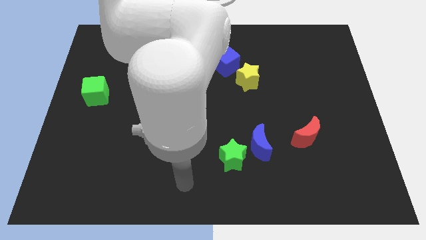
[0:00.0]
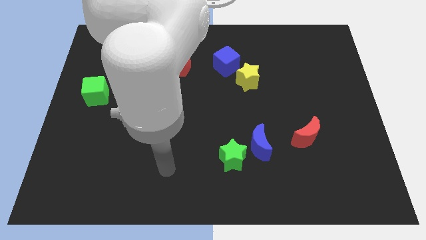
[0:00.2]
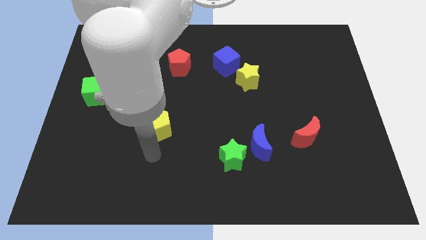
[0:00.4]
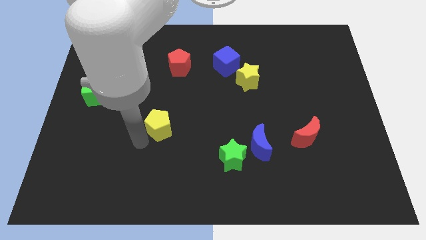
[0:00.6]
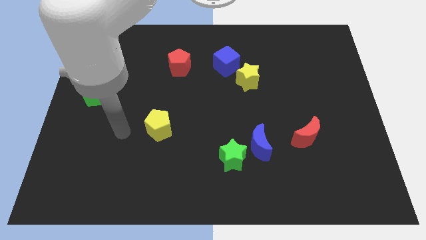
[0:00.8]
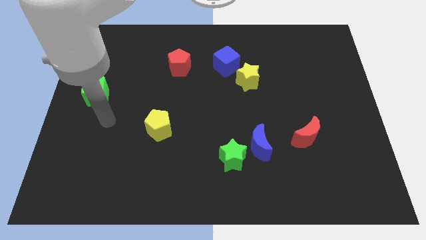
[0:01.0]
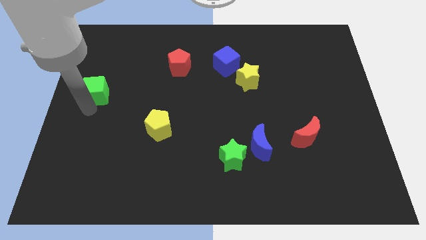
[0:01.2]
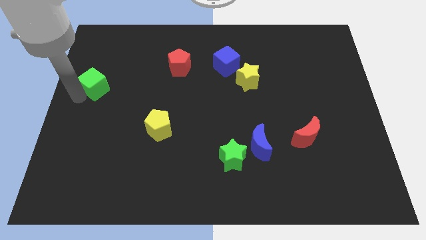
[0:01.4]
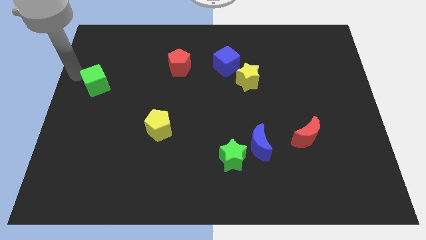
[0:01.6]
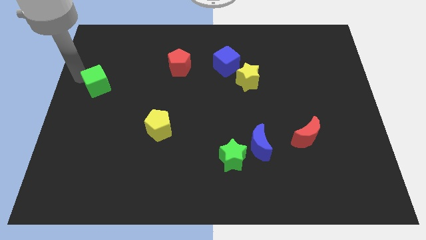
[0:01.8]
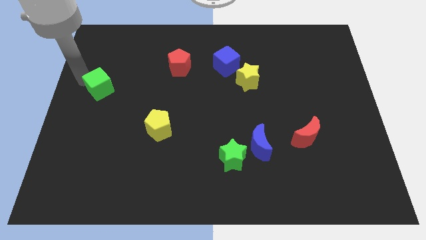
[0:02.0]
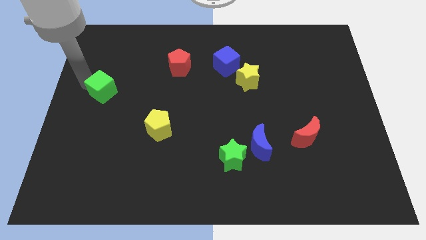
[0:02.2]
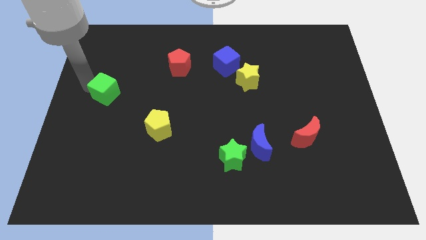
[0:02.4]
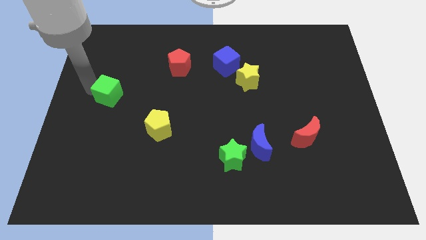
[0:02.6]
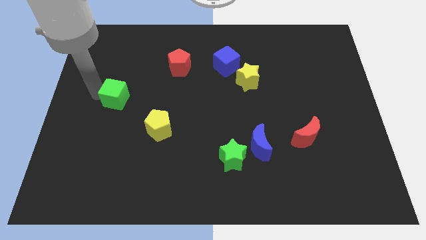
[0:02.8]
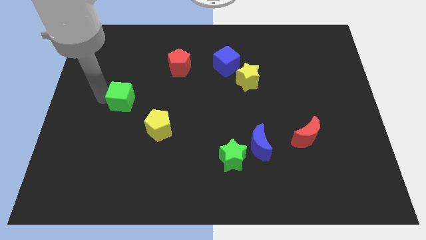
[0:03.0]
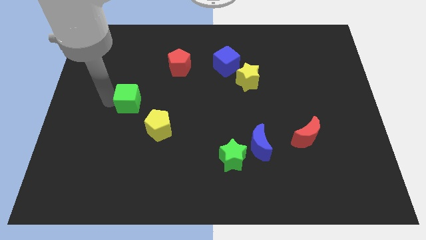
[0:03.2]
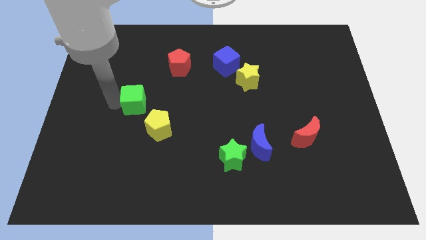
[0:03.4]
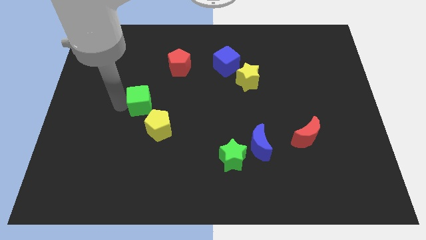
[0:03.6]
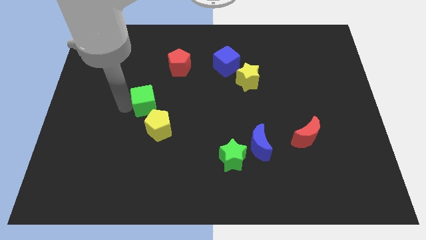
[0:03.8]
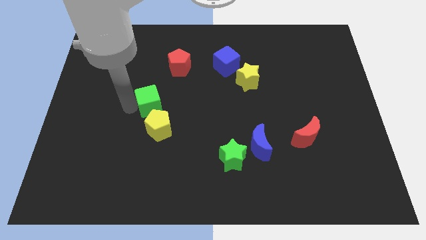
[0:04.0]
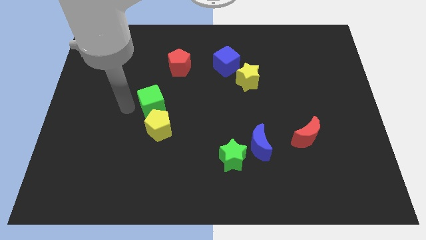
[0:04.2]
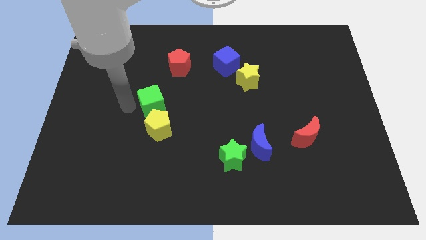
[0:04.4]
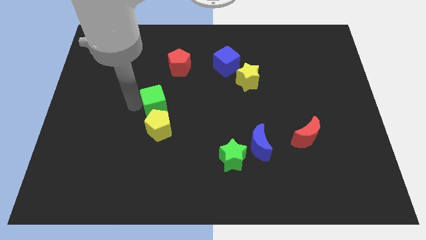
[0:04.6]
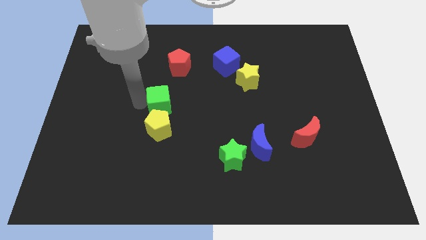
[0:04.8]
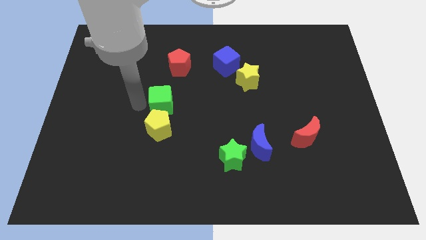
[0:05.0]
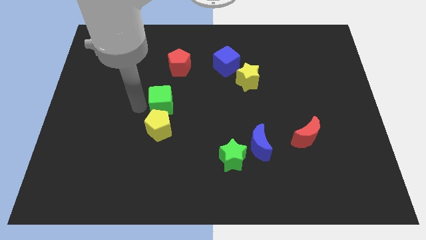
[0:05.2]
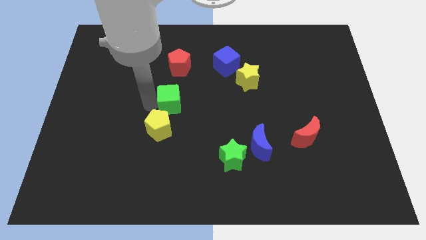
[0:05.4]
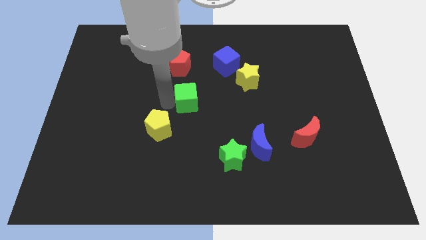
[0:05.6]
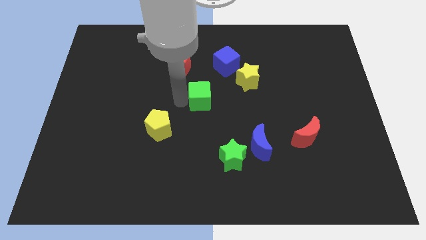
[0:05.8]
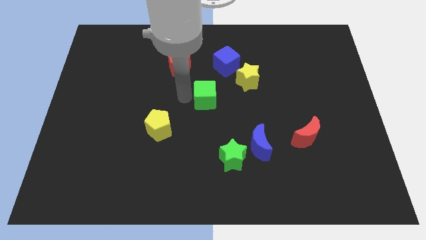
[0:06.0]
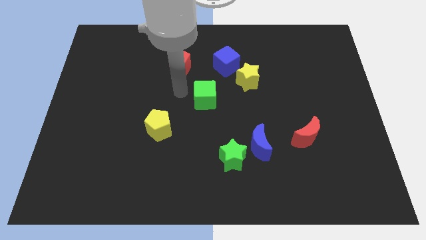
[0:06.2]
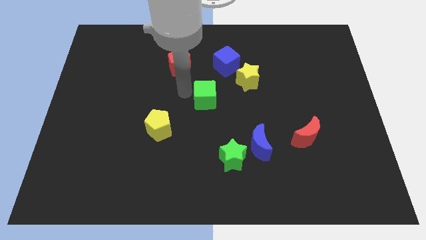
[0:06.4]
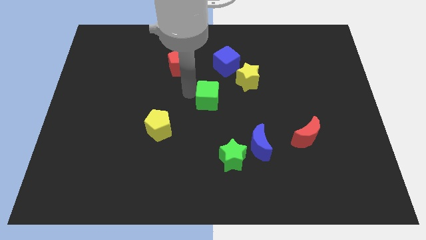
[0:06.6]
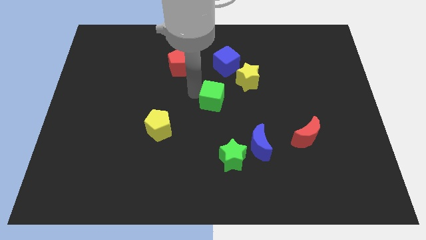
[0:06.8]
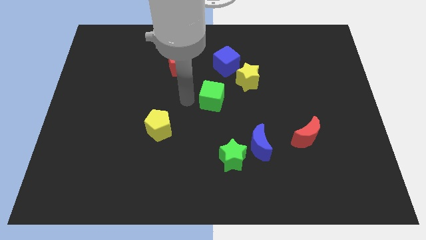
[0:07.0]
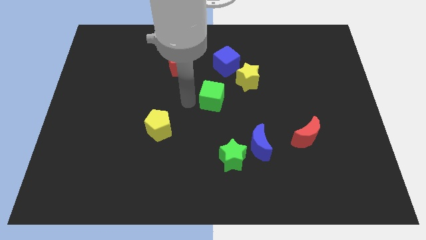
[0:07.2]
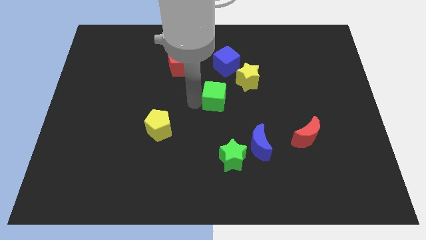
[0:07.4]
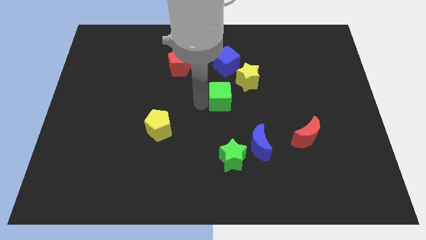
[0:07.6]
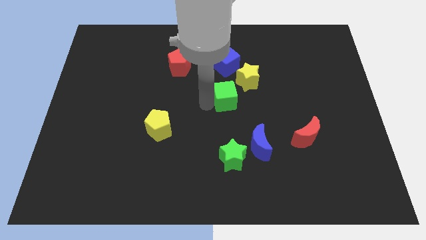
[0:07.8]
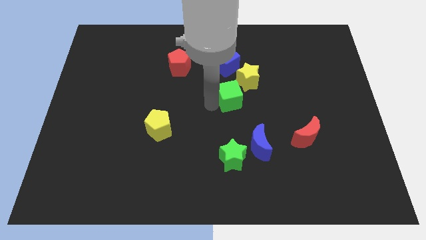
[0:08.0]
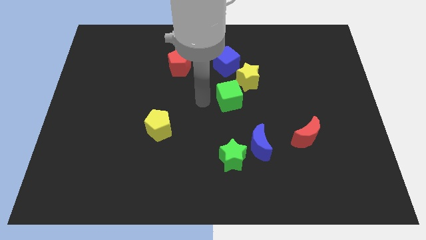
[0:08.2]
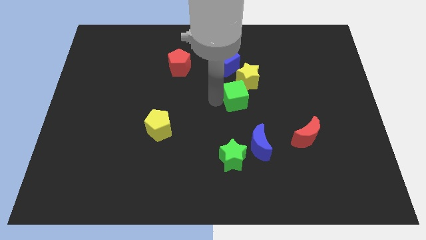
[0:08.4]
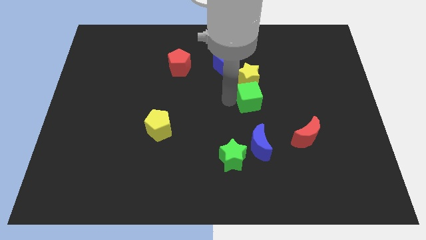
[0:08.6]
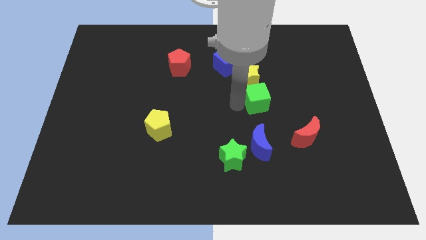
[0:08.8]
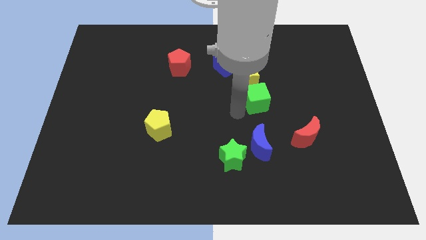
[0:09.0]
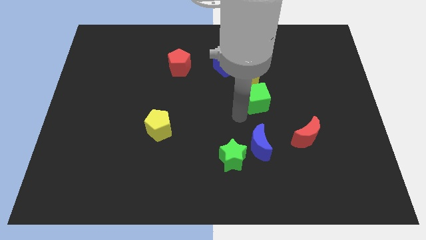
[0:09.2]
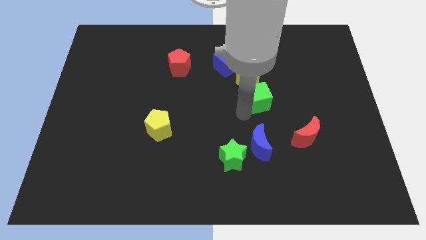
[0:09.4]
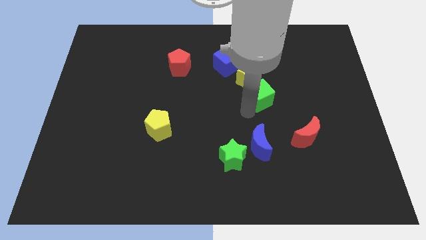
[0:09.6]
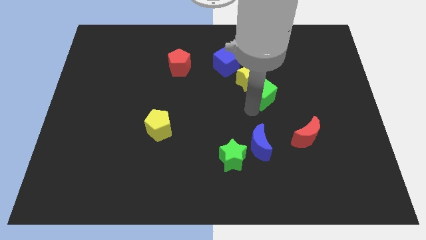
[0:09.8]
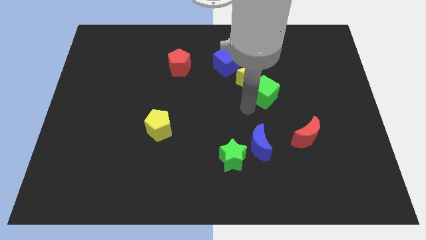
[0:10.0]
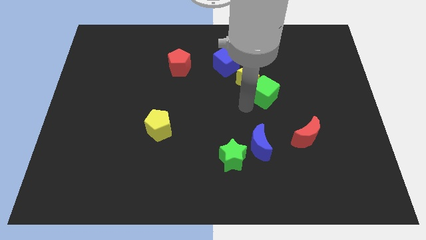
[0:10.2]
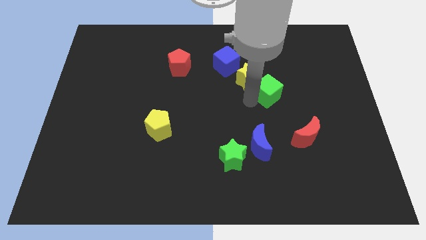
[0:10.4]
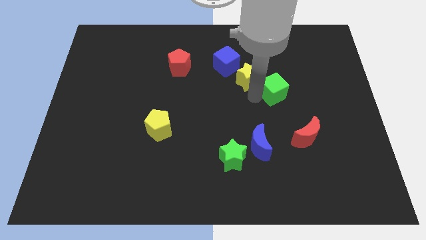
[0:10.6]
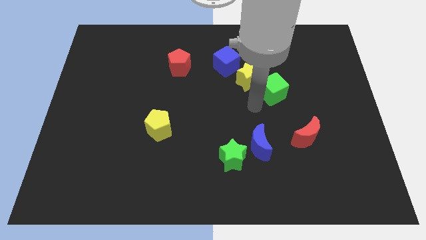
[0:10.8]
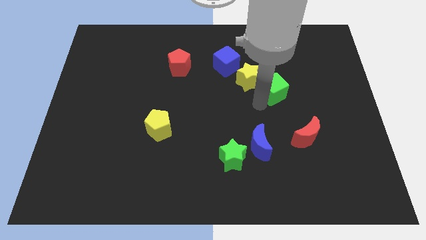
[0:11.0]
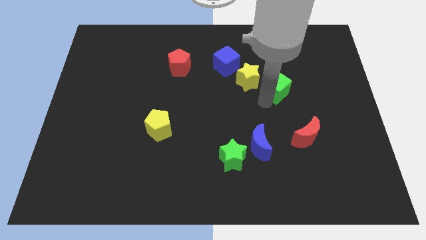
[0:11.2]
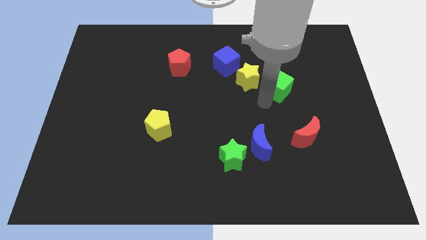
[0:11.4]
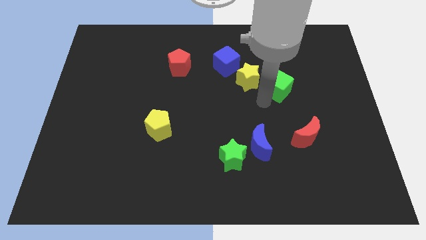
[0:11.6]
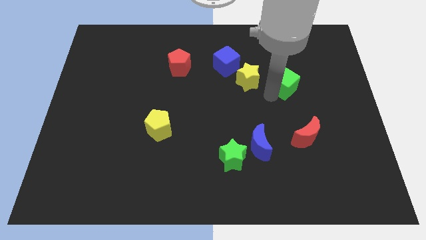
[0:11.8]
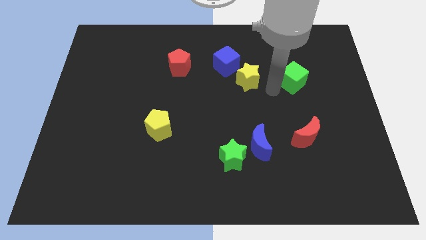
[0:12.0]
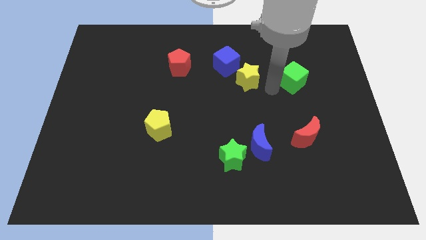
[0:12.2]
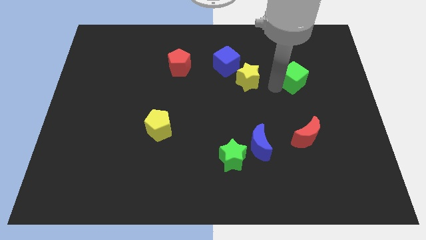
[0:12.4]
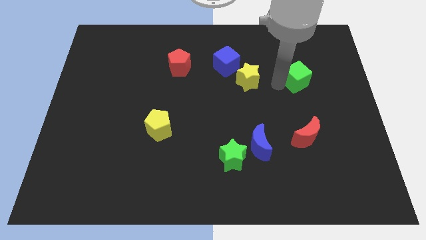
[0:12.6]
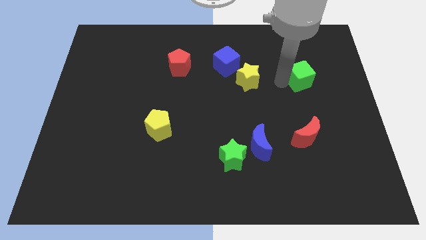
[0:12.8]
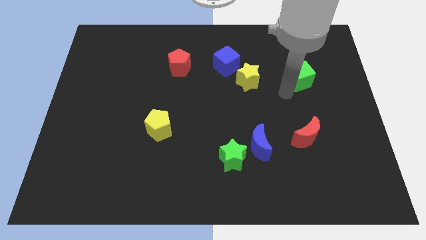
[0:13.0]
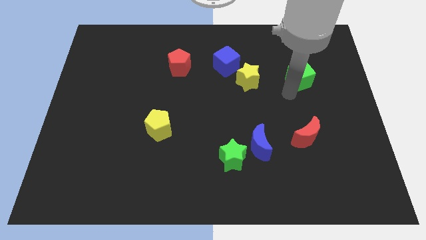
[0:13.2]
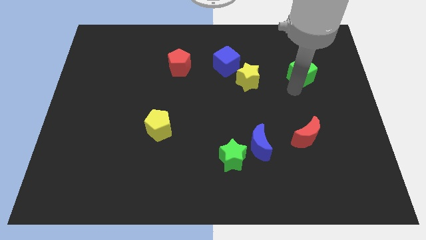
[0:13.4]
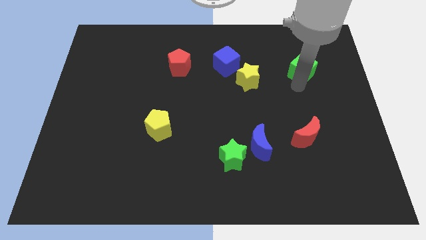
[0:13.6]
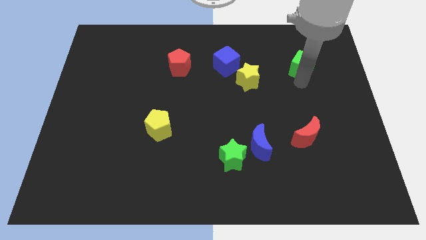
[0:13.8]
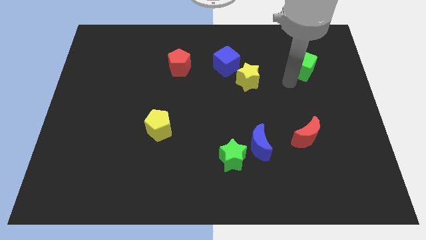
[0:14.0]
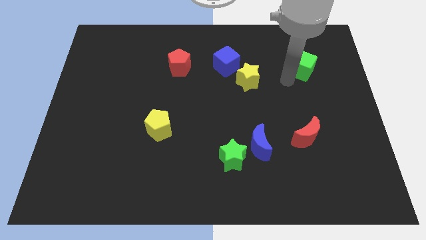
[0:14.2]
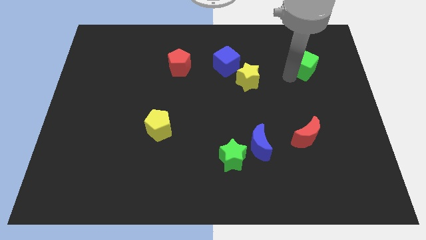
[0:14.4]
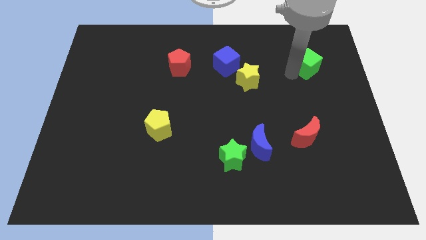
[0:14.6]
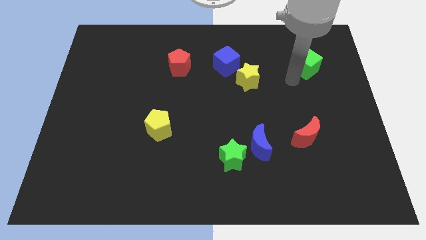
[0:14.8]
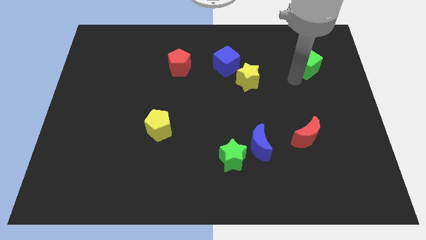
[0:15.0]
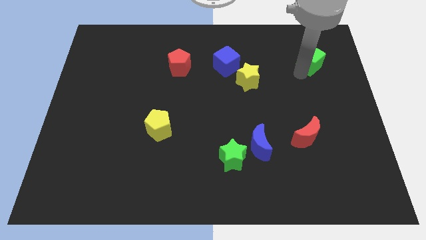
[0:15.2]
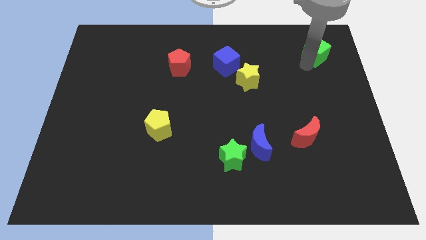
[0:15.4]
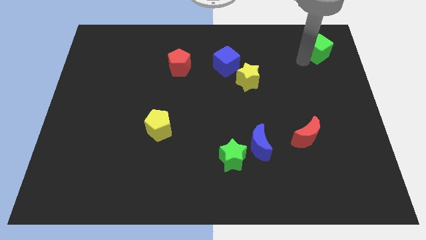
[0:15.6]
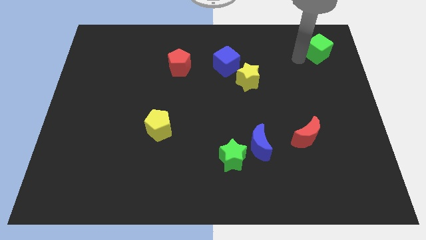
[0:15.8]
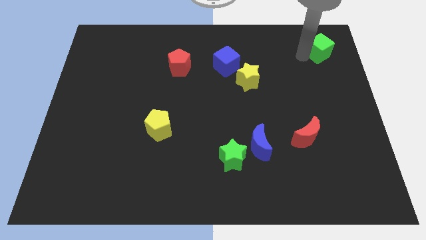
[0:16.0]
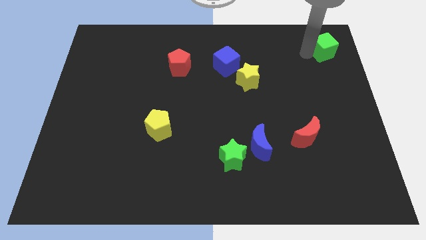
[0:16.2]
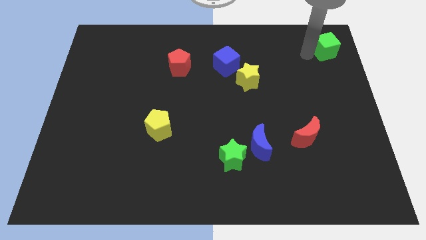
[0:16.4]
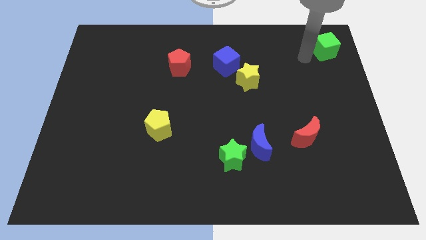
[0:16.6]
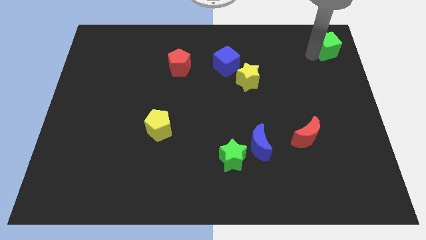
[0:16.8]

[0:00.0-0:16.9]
put the green cube to the top right
